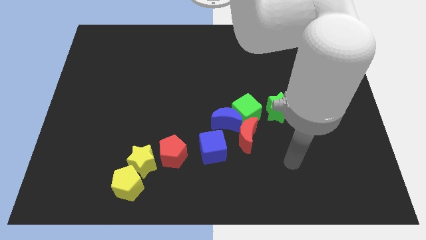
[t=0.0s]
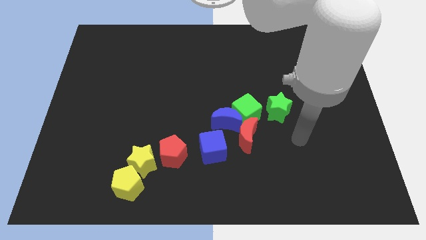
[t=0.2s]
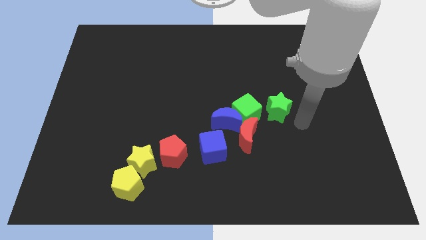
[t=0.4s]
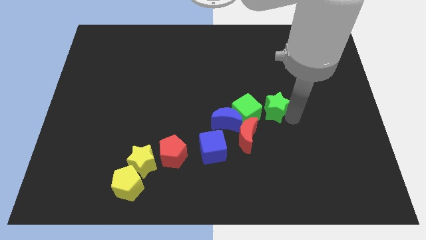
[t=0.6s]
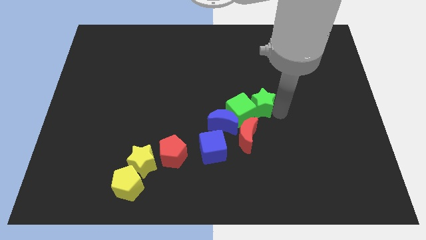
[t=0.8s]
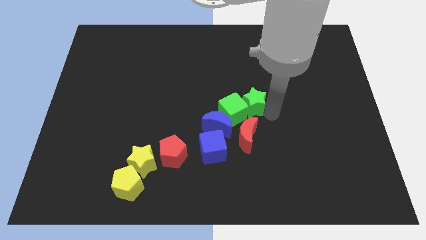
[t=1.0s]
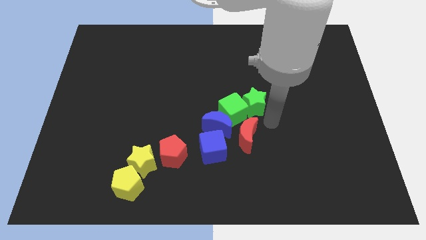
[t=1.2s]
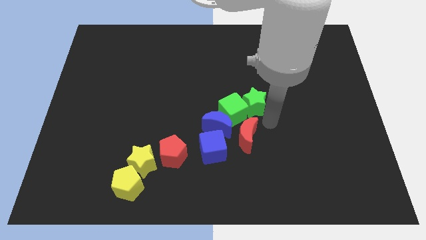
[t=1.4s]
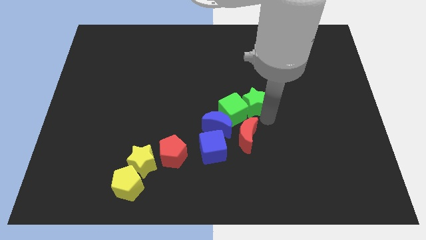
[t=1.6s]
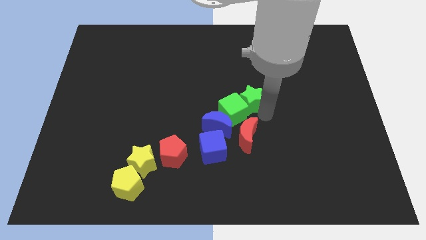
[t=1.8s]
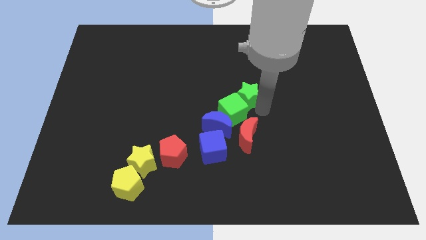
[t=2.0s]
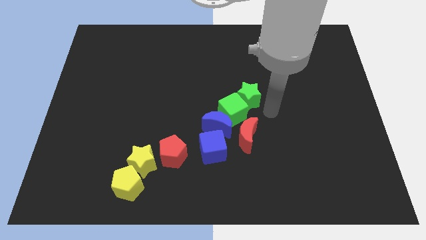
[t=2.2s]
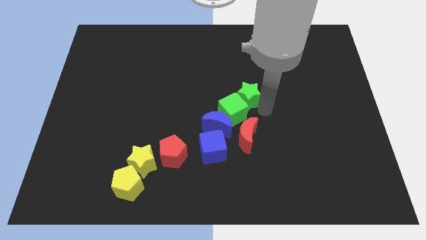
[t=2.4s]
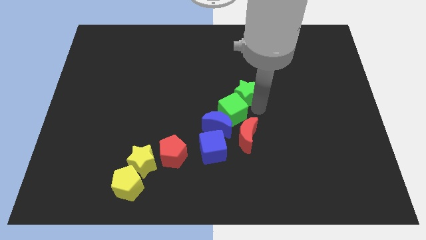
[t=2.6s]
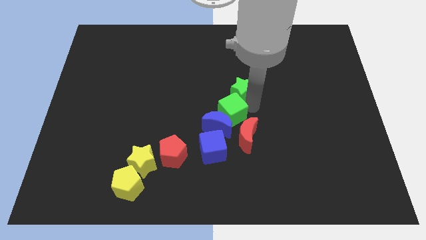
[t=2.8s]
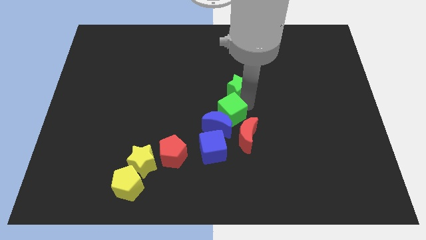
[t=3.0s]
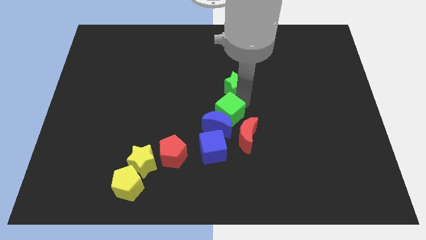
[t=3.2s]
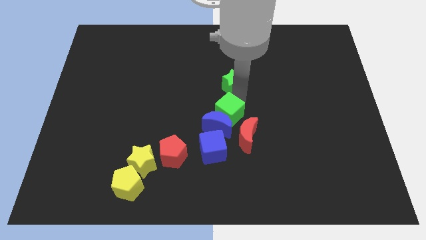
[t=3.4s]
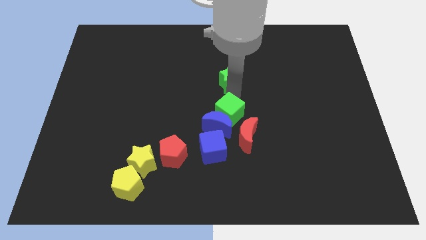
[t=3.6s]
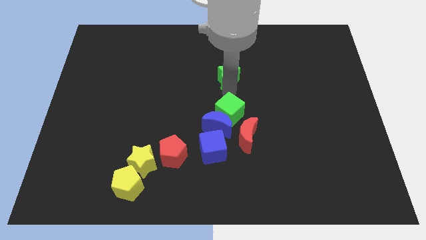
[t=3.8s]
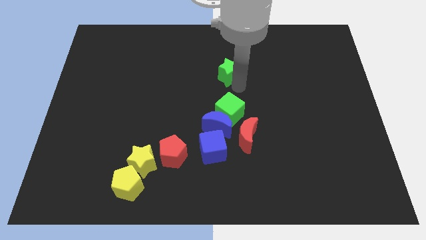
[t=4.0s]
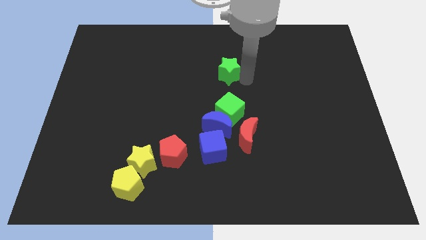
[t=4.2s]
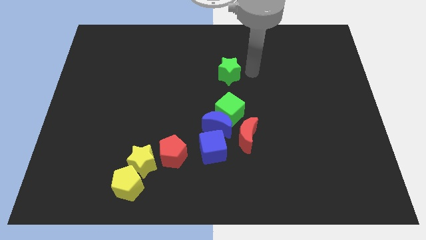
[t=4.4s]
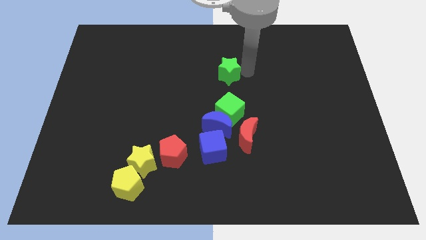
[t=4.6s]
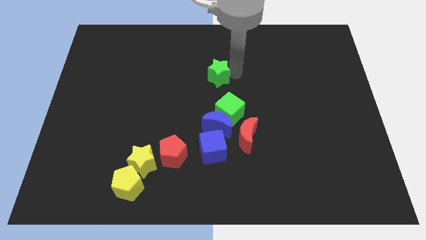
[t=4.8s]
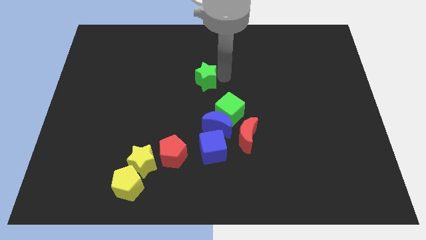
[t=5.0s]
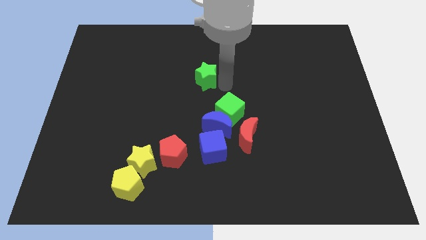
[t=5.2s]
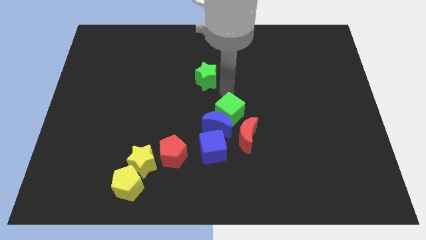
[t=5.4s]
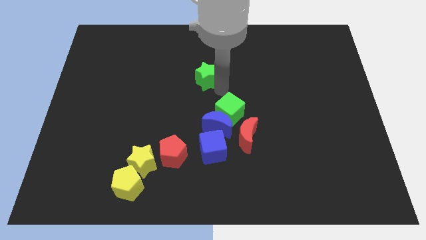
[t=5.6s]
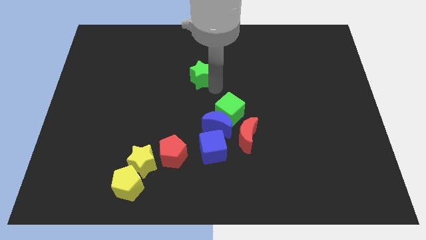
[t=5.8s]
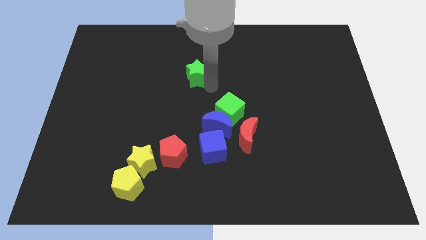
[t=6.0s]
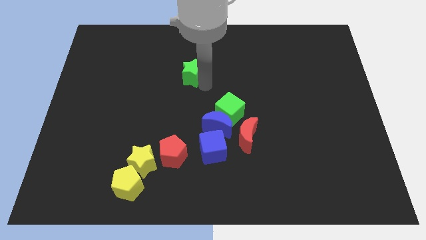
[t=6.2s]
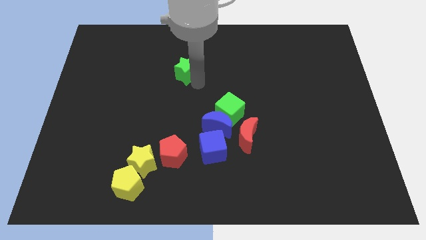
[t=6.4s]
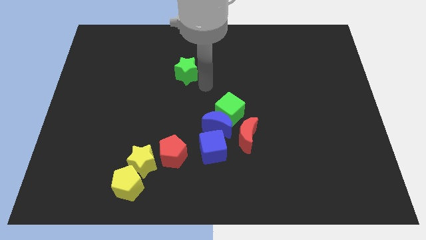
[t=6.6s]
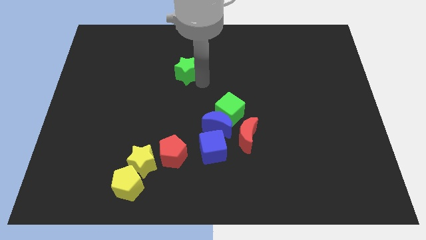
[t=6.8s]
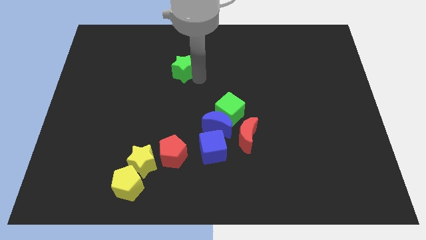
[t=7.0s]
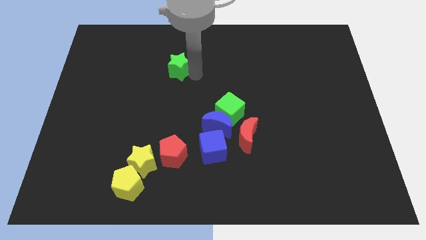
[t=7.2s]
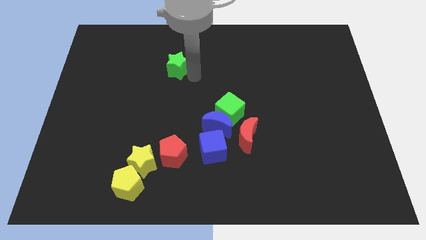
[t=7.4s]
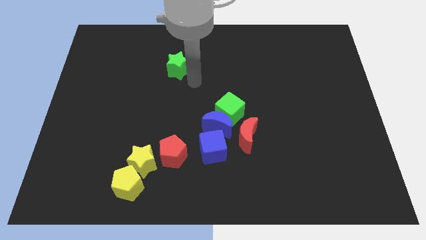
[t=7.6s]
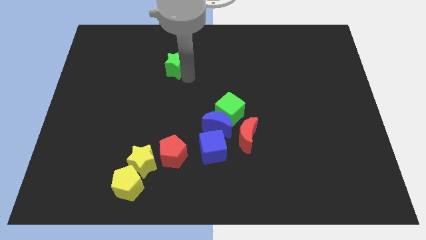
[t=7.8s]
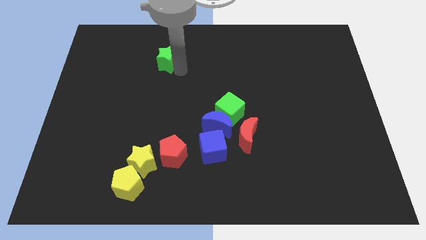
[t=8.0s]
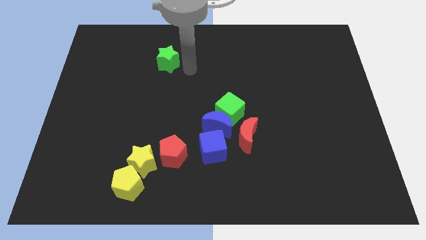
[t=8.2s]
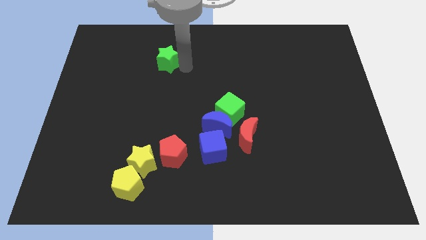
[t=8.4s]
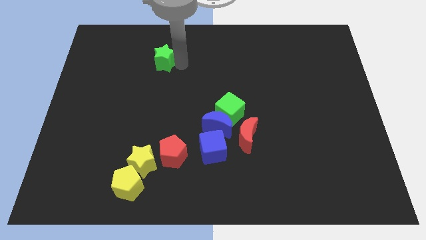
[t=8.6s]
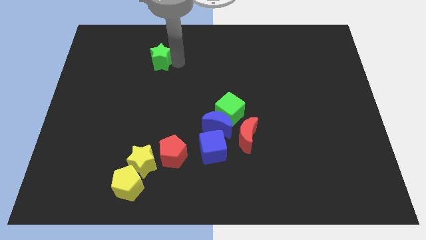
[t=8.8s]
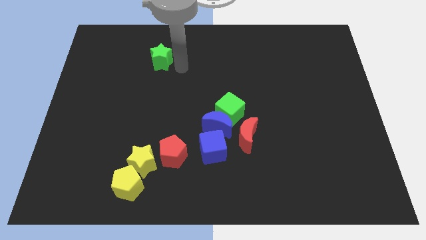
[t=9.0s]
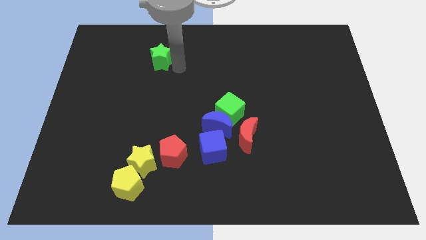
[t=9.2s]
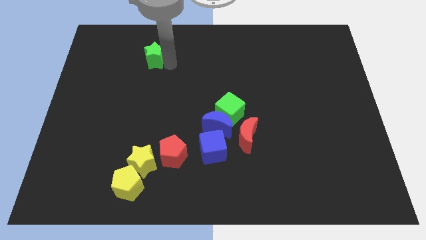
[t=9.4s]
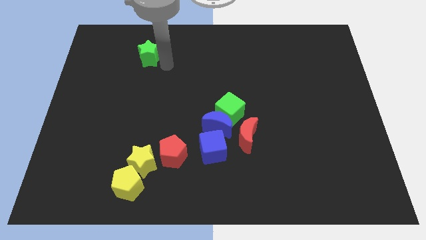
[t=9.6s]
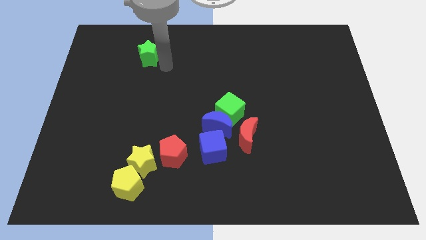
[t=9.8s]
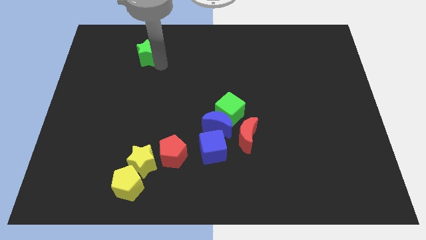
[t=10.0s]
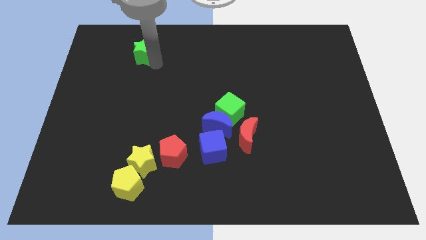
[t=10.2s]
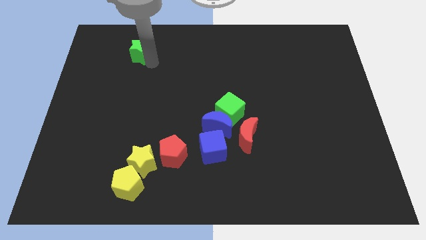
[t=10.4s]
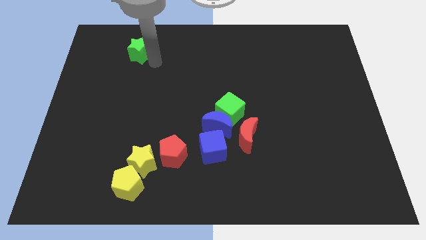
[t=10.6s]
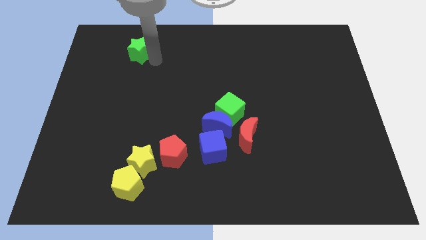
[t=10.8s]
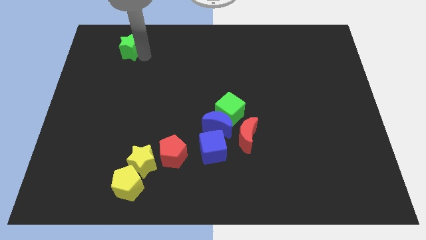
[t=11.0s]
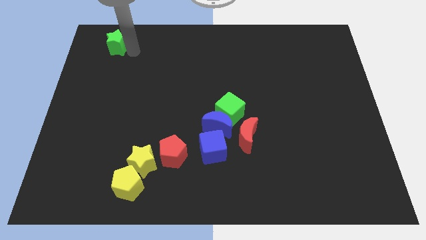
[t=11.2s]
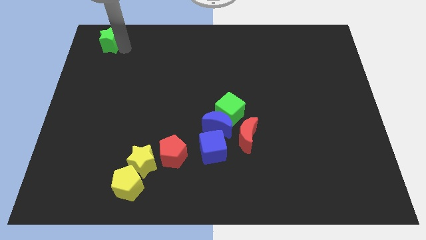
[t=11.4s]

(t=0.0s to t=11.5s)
put the green star to the top left

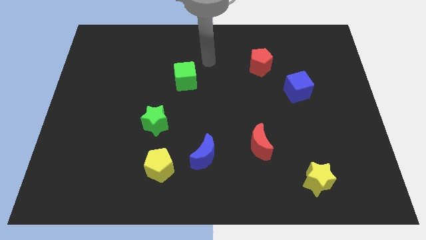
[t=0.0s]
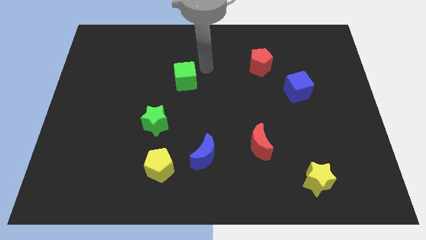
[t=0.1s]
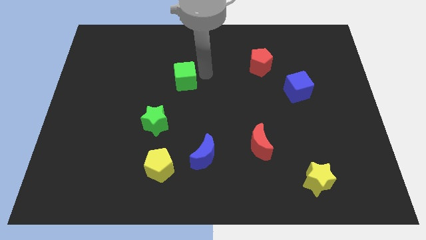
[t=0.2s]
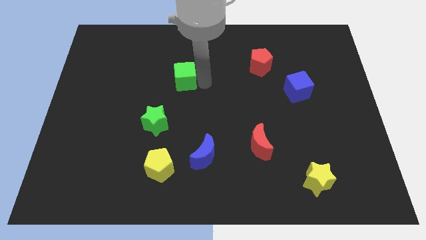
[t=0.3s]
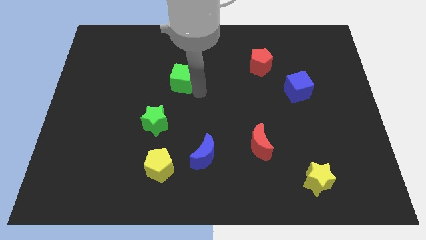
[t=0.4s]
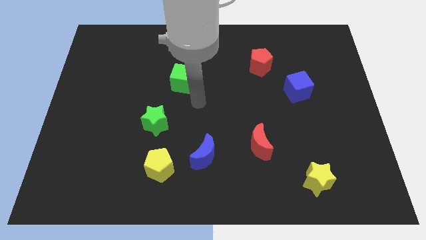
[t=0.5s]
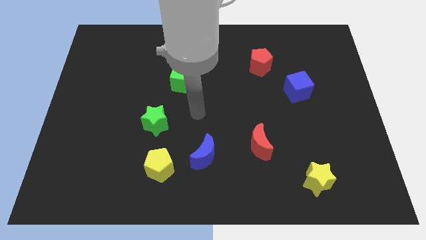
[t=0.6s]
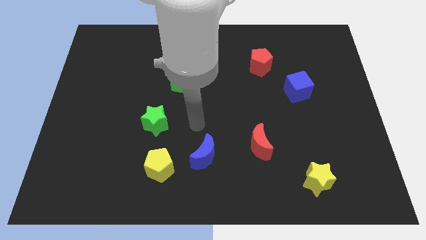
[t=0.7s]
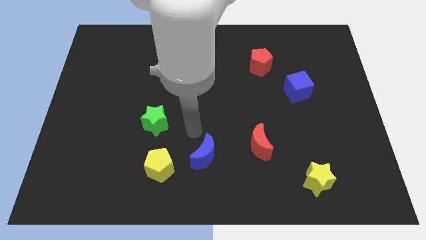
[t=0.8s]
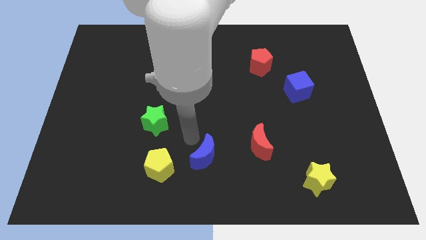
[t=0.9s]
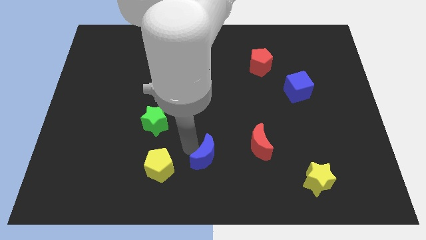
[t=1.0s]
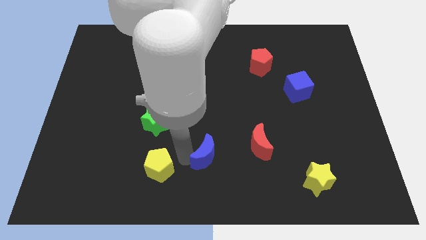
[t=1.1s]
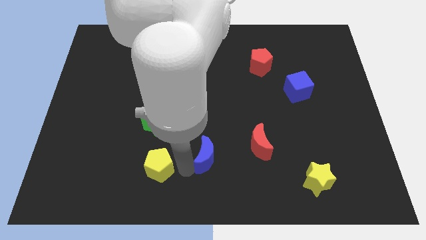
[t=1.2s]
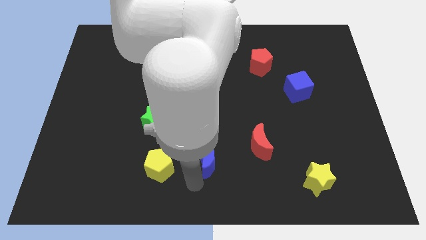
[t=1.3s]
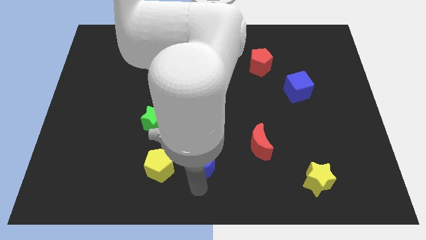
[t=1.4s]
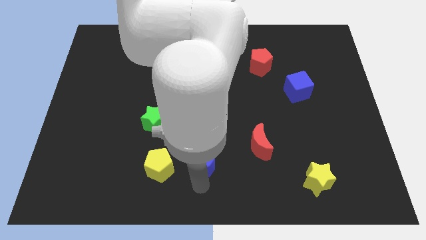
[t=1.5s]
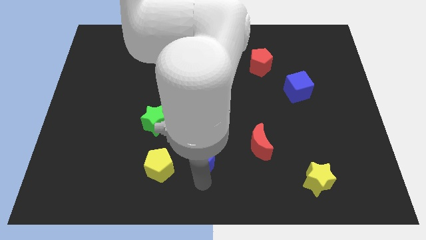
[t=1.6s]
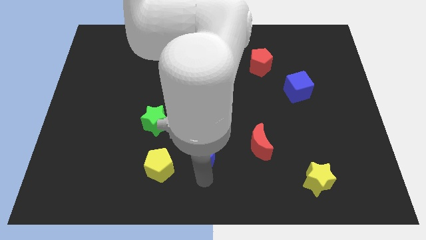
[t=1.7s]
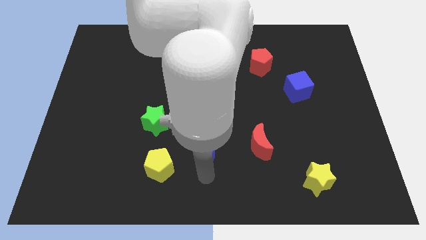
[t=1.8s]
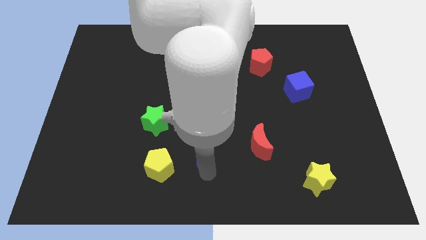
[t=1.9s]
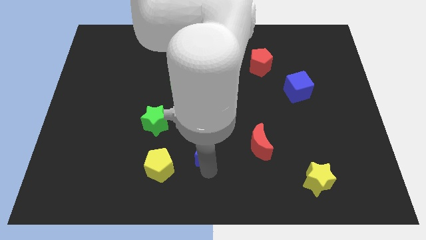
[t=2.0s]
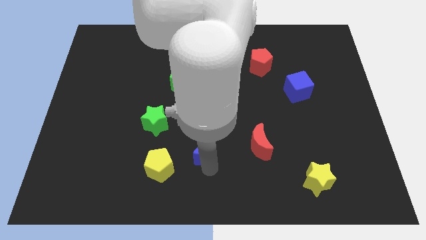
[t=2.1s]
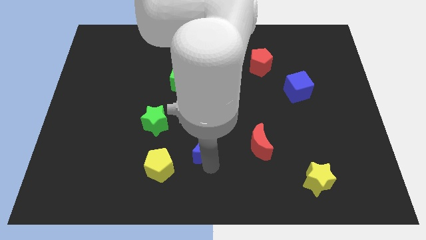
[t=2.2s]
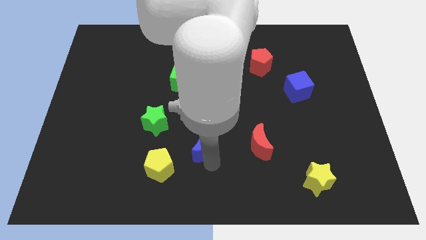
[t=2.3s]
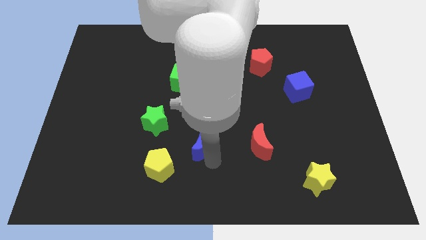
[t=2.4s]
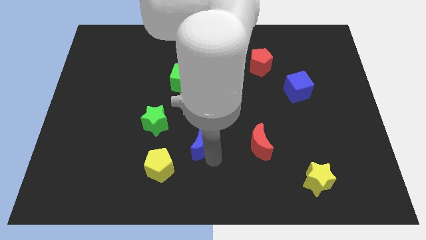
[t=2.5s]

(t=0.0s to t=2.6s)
push the blue moon to the middle of the board
